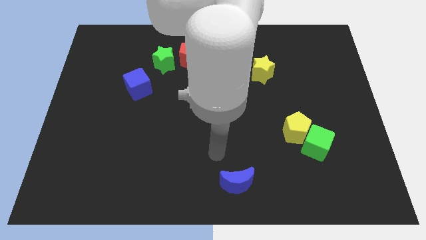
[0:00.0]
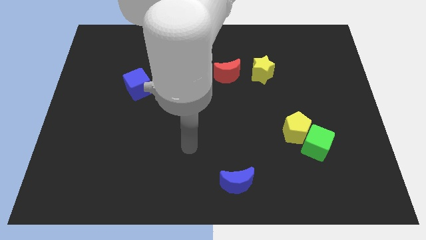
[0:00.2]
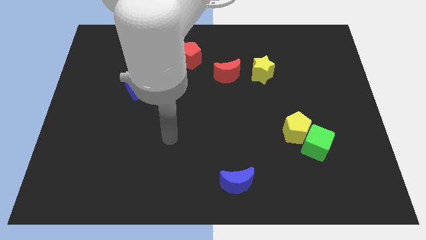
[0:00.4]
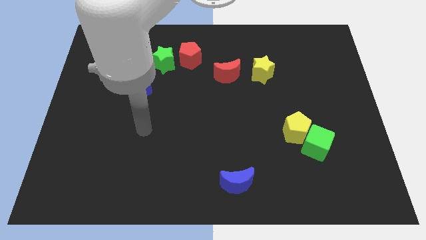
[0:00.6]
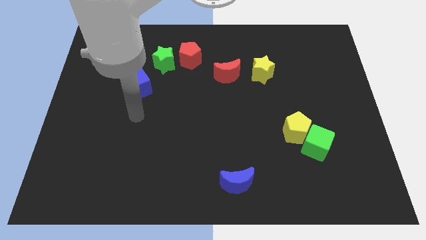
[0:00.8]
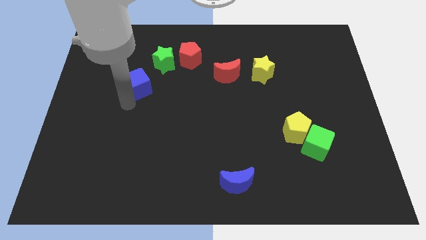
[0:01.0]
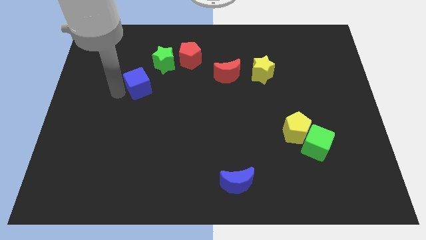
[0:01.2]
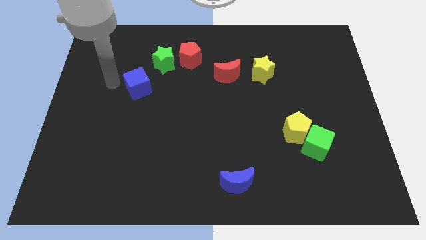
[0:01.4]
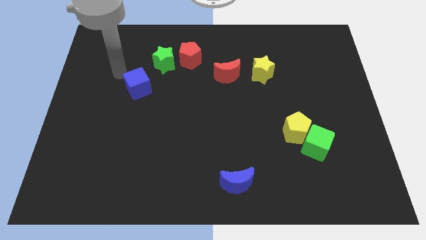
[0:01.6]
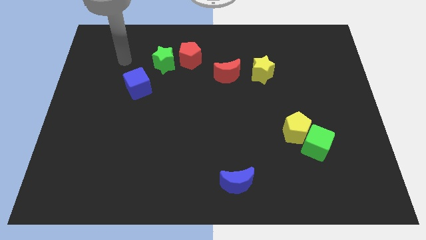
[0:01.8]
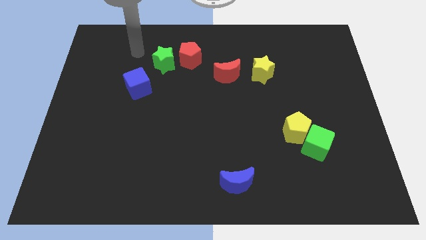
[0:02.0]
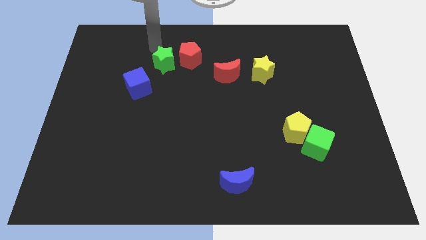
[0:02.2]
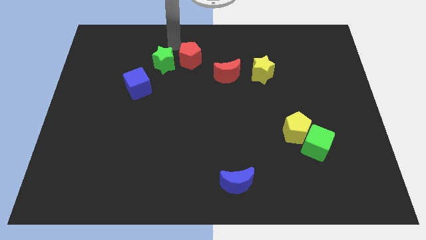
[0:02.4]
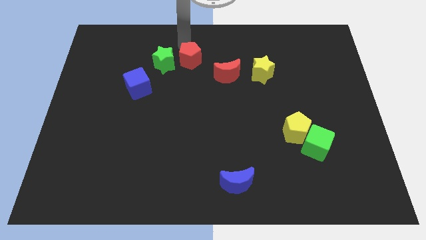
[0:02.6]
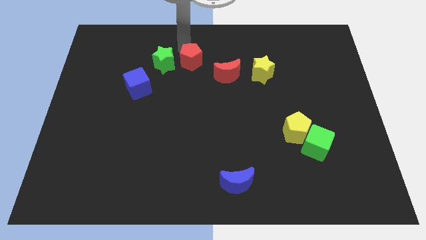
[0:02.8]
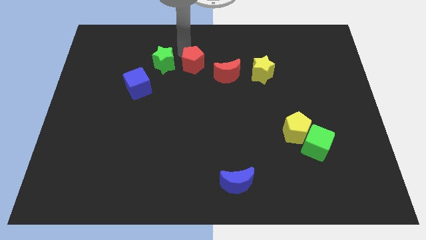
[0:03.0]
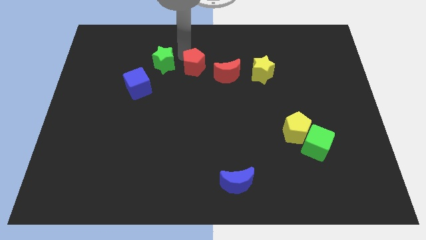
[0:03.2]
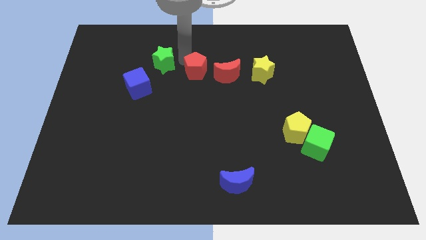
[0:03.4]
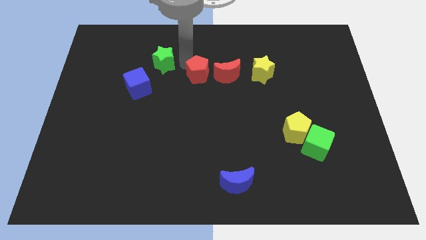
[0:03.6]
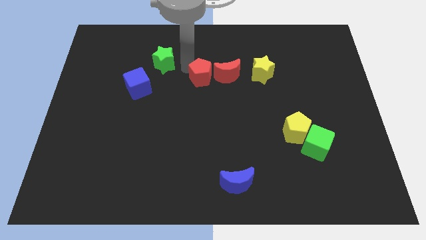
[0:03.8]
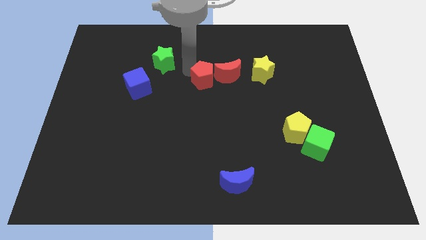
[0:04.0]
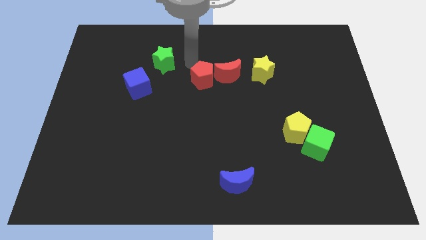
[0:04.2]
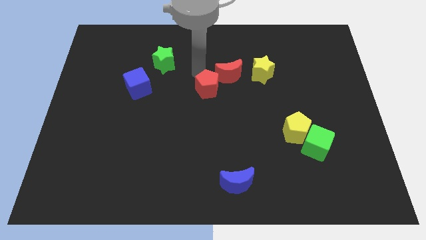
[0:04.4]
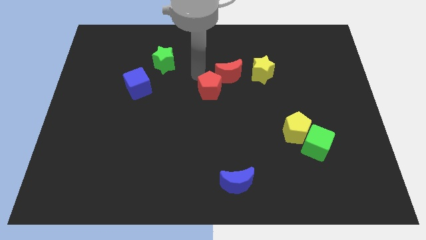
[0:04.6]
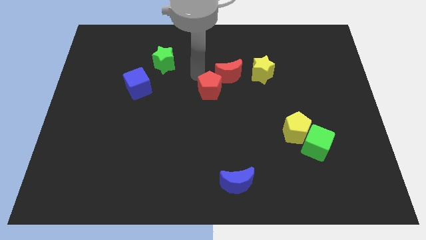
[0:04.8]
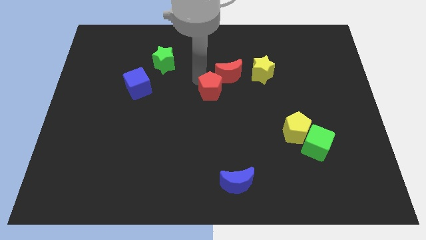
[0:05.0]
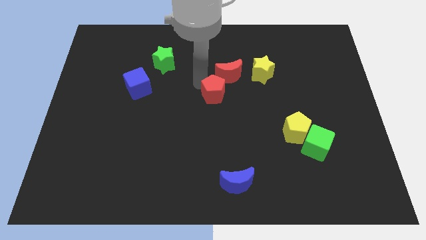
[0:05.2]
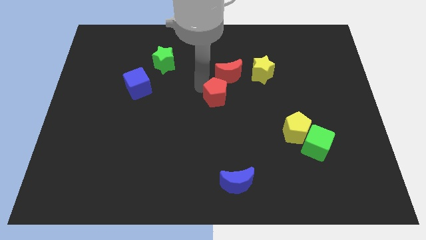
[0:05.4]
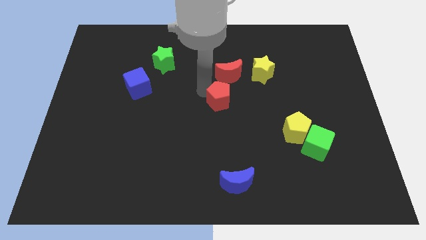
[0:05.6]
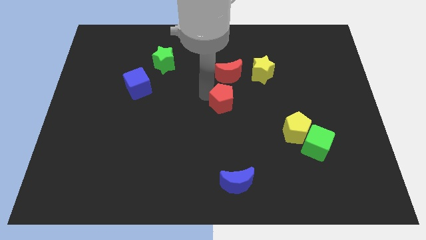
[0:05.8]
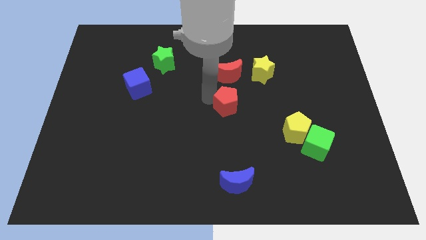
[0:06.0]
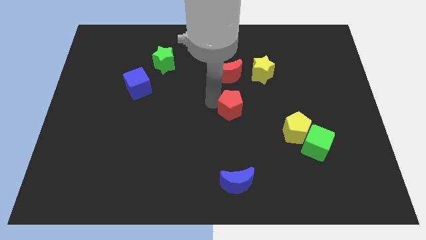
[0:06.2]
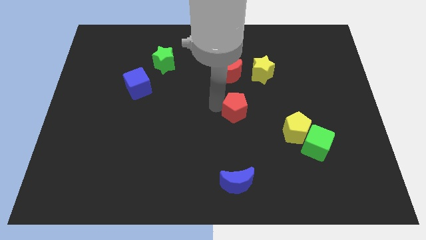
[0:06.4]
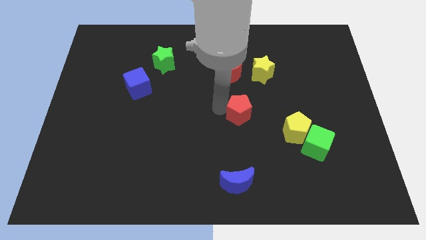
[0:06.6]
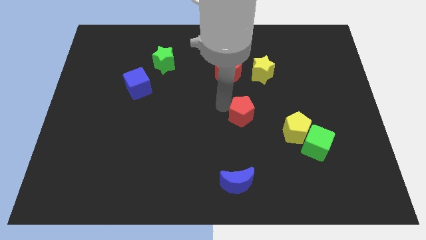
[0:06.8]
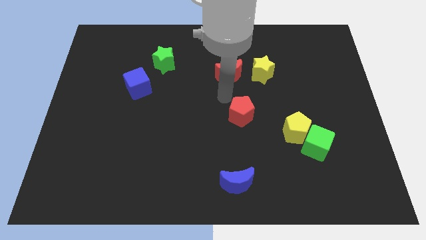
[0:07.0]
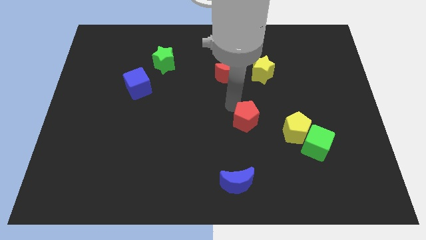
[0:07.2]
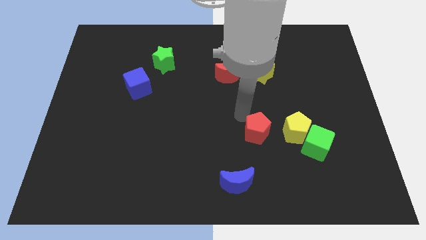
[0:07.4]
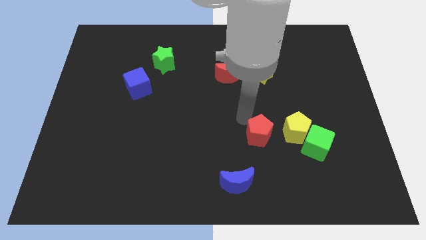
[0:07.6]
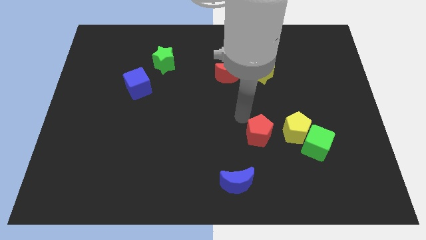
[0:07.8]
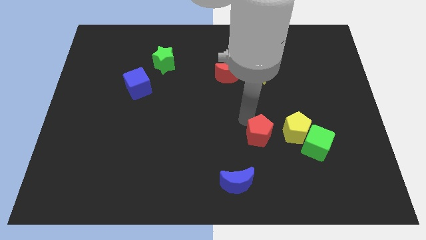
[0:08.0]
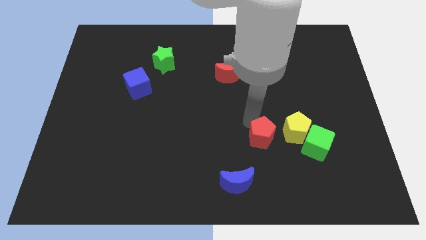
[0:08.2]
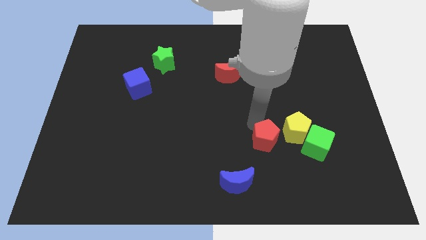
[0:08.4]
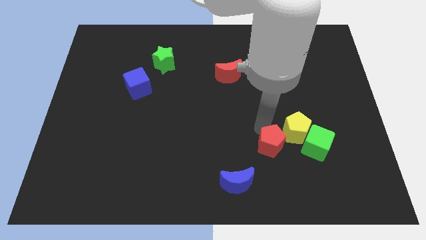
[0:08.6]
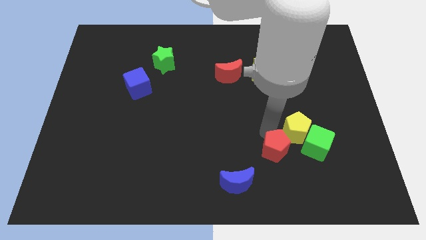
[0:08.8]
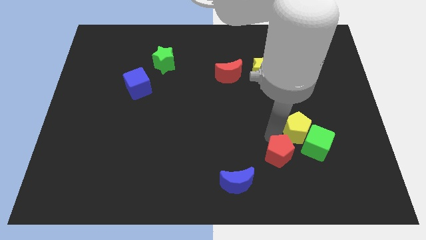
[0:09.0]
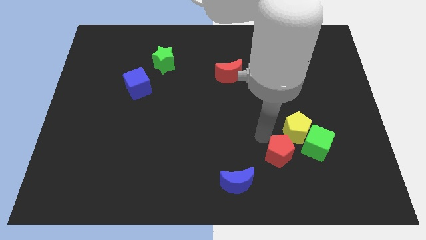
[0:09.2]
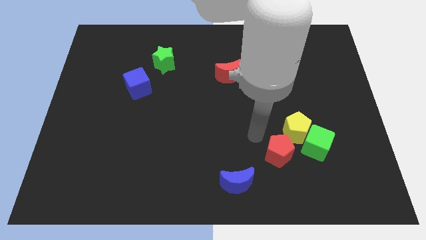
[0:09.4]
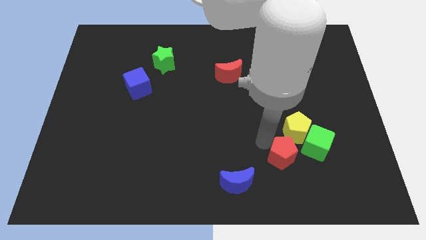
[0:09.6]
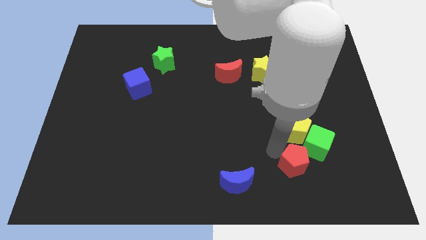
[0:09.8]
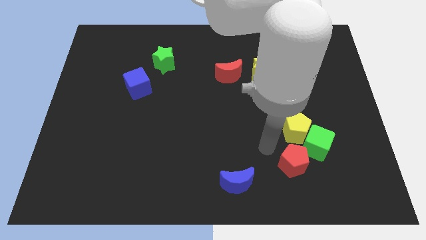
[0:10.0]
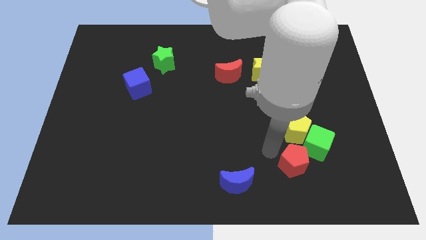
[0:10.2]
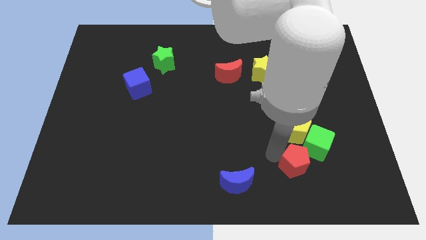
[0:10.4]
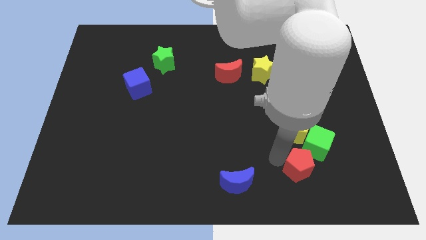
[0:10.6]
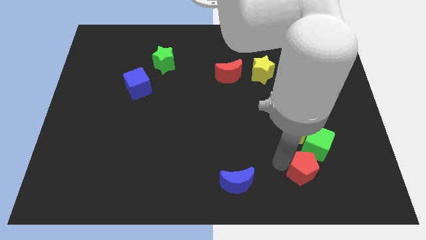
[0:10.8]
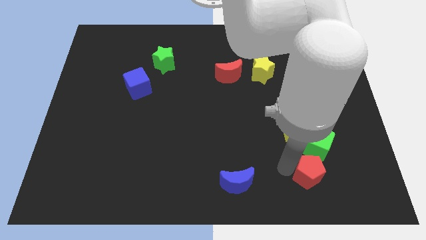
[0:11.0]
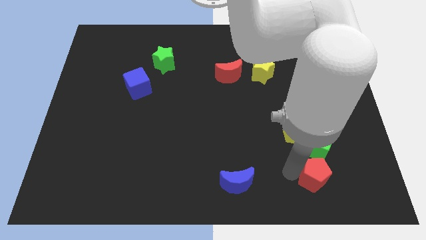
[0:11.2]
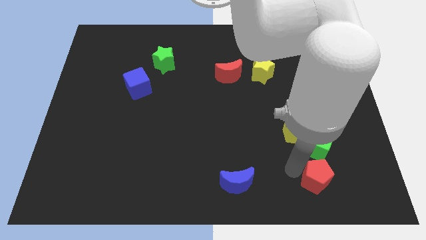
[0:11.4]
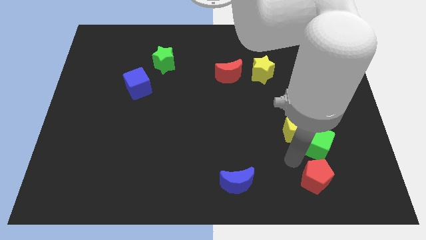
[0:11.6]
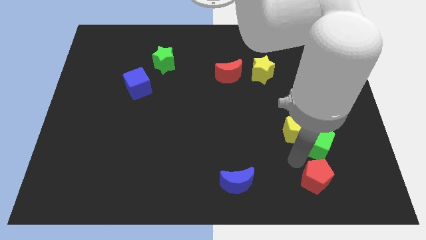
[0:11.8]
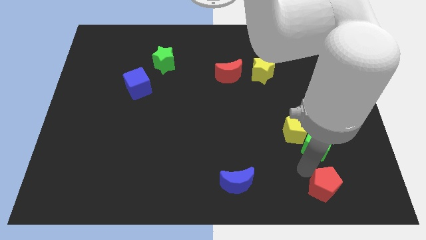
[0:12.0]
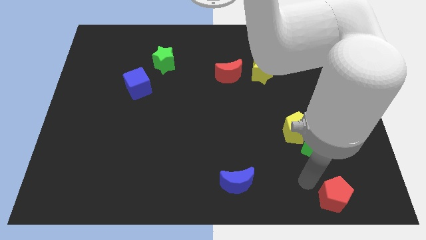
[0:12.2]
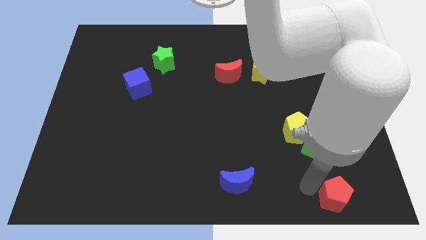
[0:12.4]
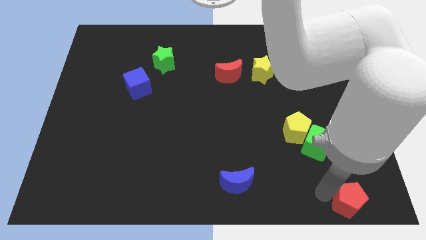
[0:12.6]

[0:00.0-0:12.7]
put the red pentagon to the bottom right corner

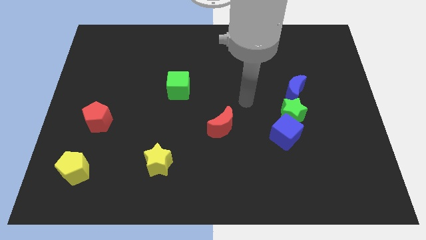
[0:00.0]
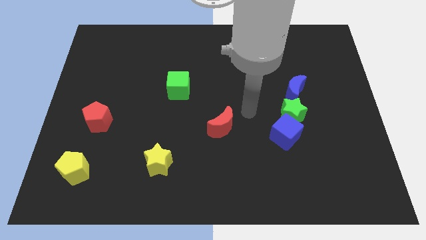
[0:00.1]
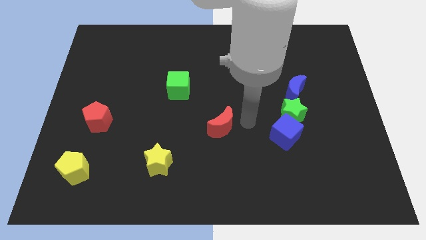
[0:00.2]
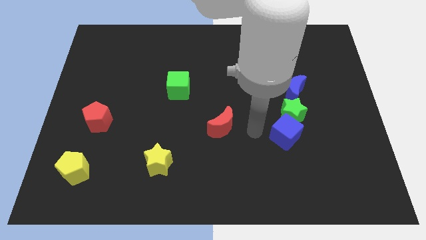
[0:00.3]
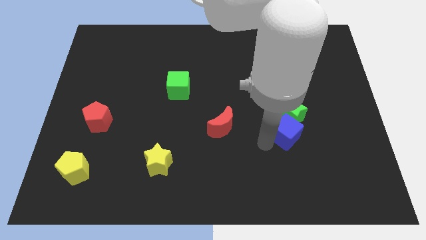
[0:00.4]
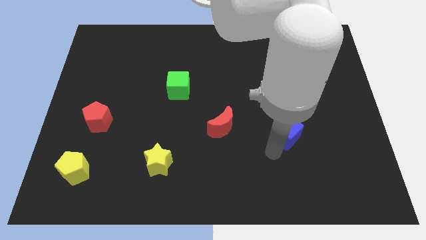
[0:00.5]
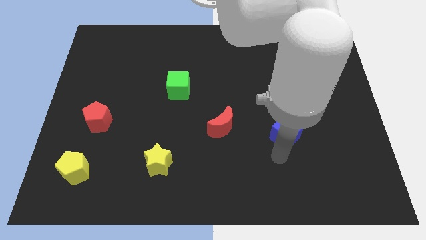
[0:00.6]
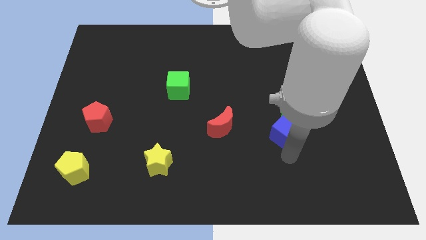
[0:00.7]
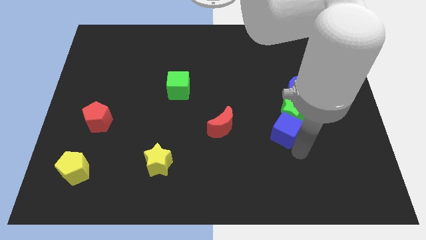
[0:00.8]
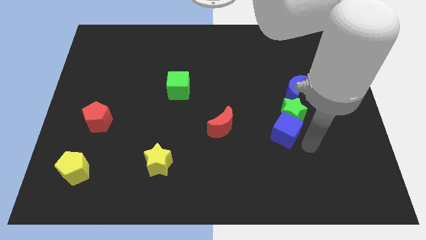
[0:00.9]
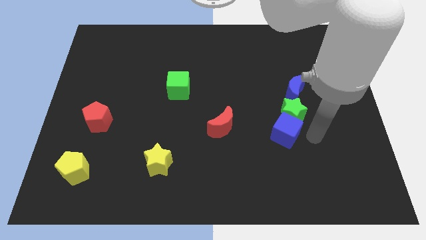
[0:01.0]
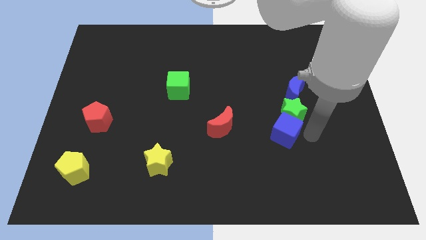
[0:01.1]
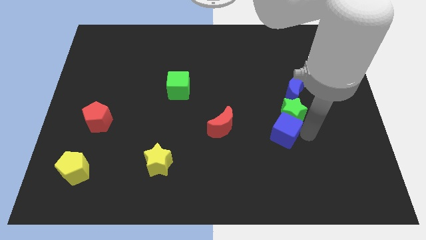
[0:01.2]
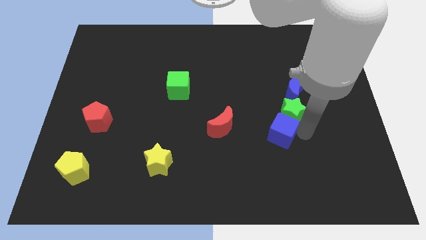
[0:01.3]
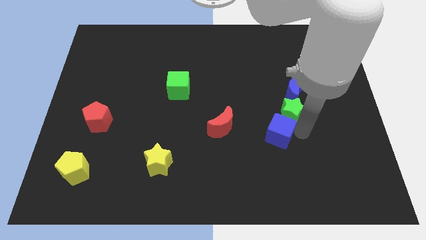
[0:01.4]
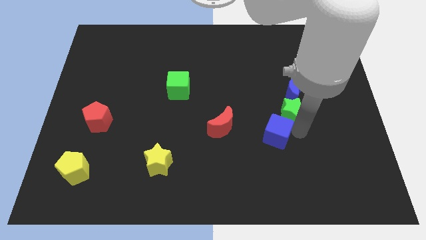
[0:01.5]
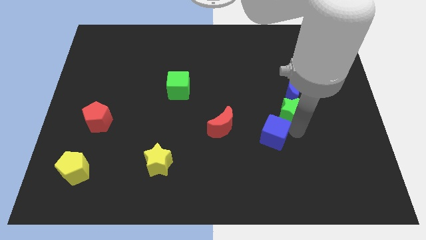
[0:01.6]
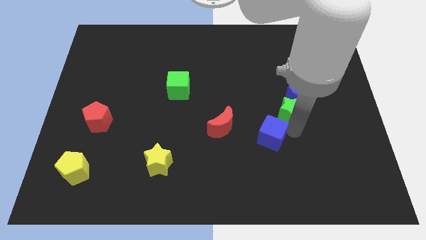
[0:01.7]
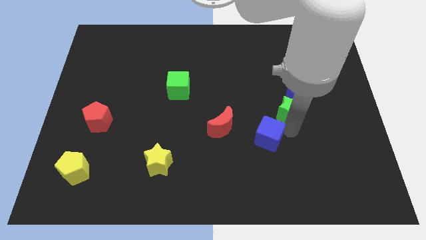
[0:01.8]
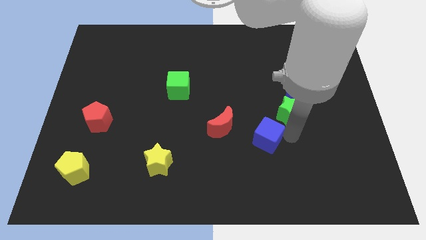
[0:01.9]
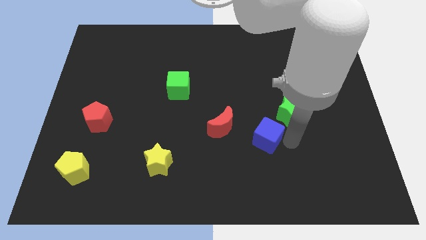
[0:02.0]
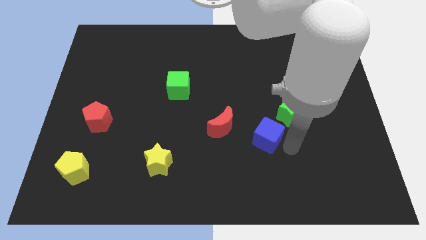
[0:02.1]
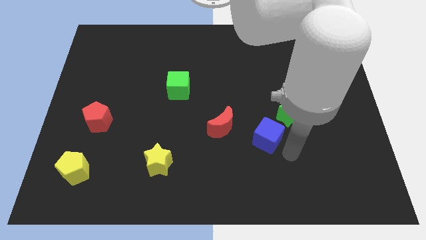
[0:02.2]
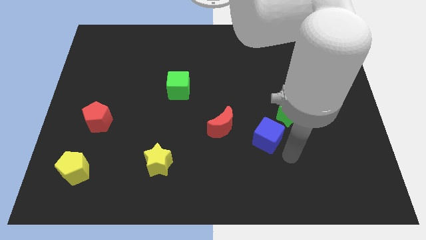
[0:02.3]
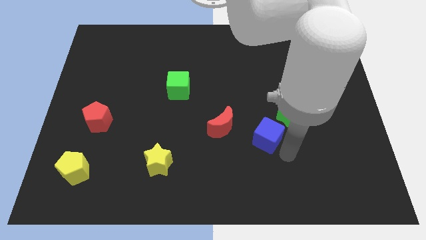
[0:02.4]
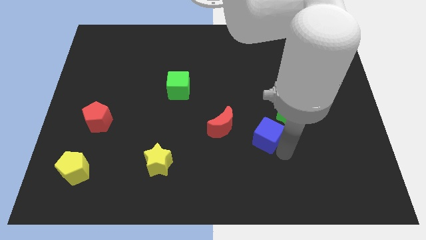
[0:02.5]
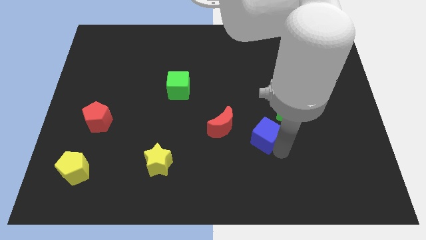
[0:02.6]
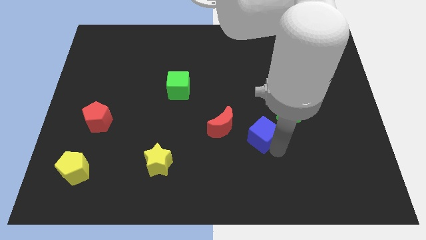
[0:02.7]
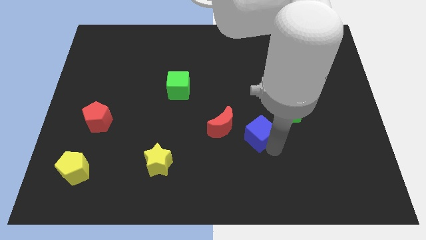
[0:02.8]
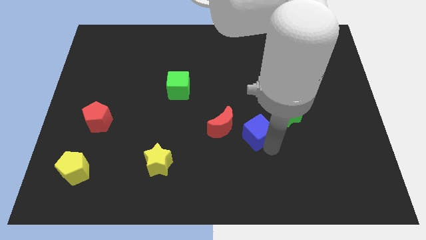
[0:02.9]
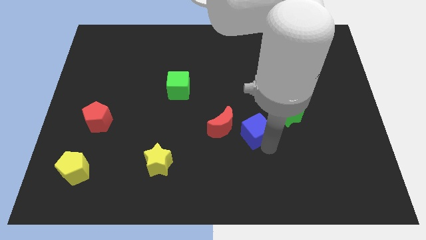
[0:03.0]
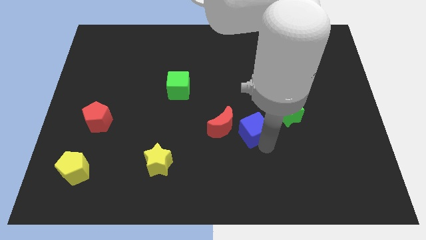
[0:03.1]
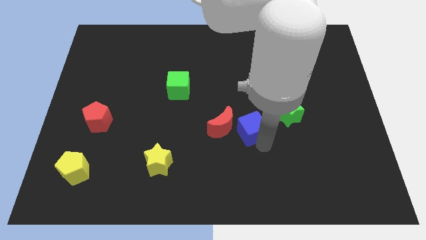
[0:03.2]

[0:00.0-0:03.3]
slide the blue cube to the center
